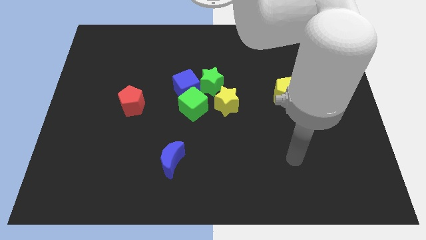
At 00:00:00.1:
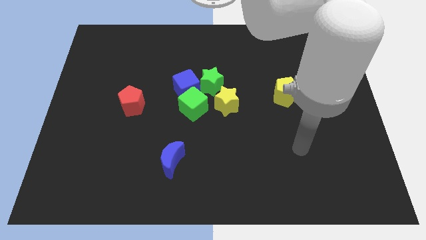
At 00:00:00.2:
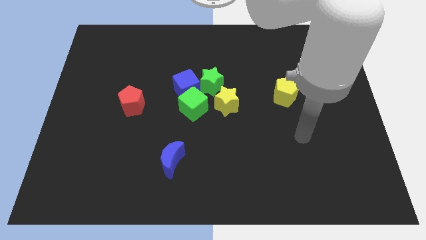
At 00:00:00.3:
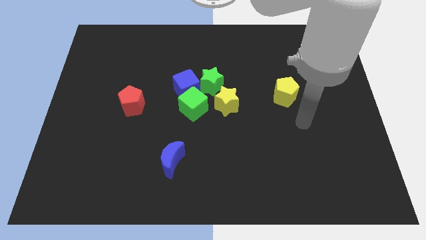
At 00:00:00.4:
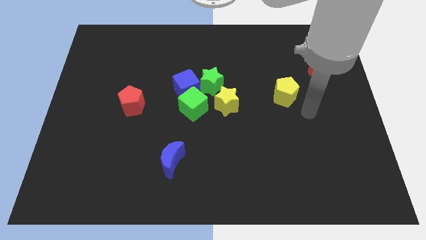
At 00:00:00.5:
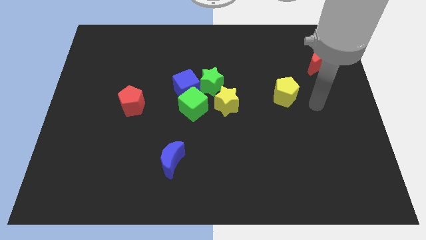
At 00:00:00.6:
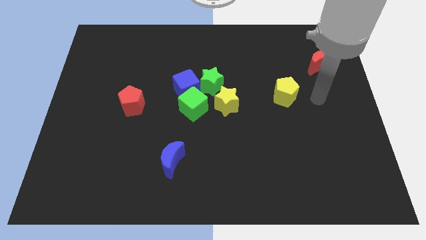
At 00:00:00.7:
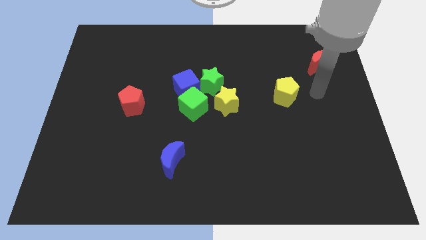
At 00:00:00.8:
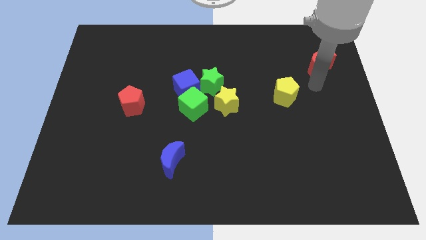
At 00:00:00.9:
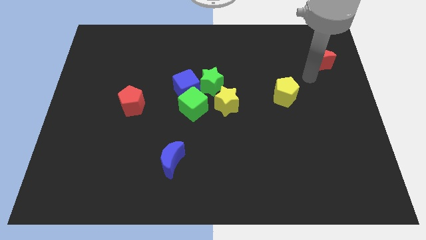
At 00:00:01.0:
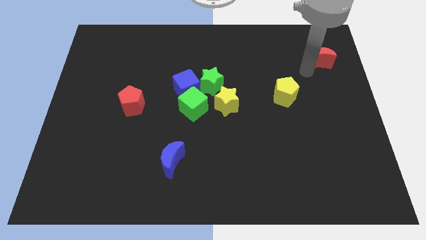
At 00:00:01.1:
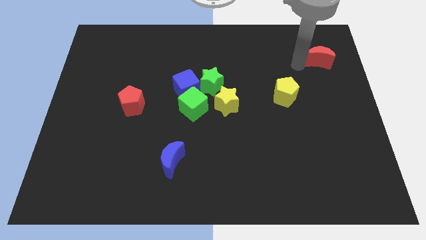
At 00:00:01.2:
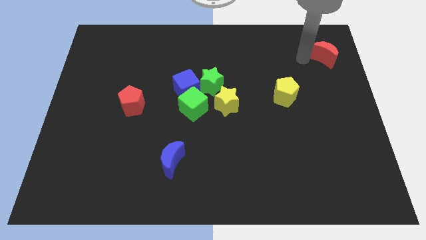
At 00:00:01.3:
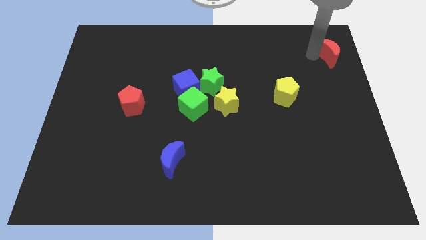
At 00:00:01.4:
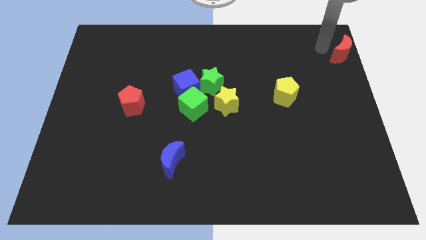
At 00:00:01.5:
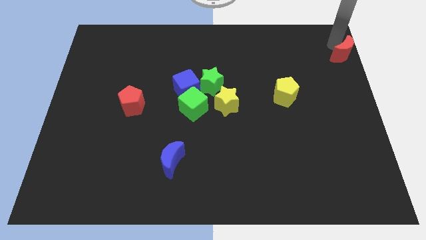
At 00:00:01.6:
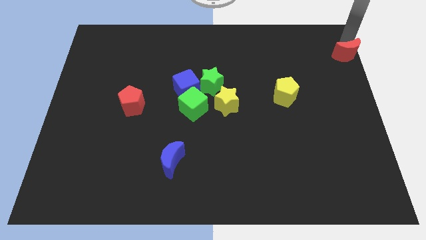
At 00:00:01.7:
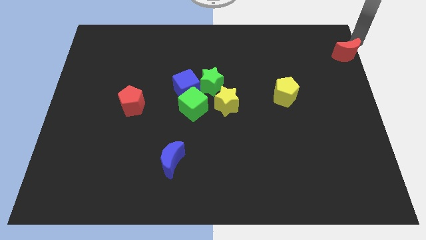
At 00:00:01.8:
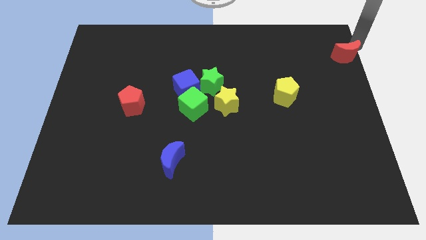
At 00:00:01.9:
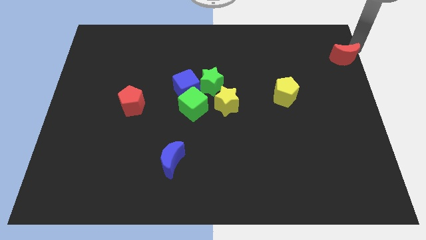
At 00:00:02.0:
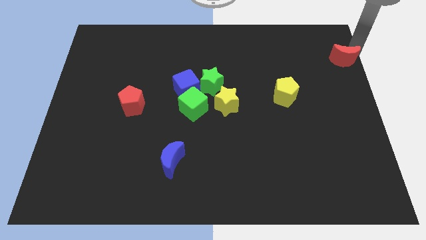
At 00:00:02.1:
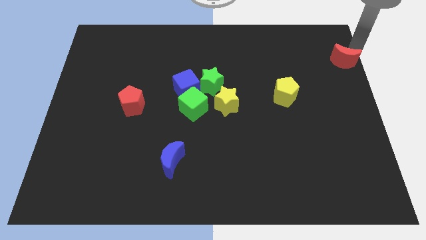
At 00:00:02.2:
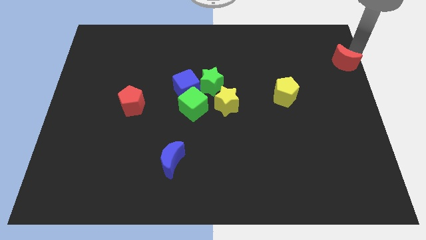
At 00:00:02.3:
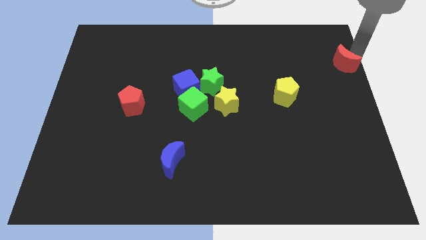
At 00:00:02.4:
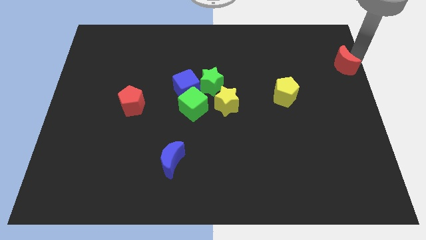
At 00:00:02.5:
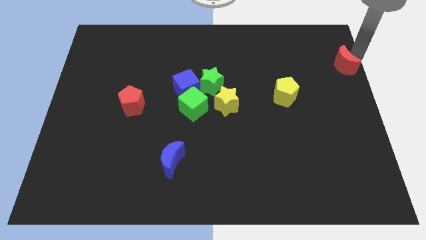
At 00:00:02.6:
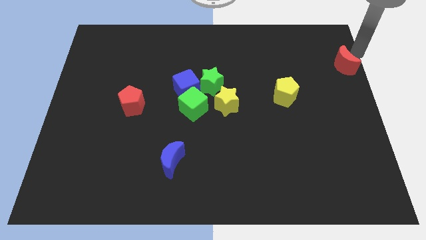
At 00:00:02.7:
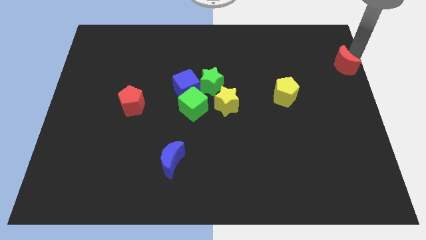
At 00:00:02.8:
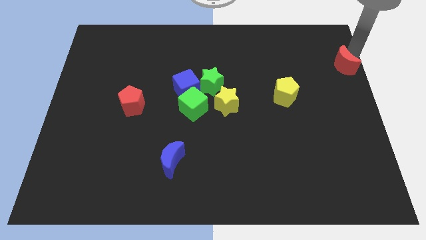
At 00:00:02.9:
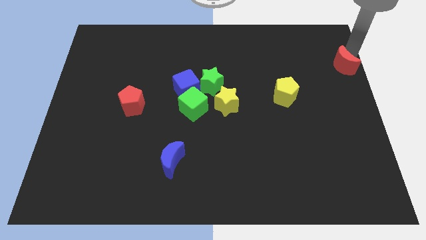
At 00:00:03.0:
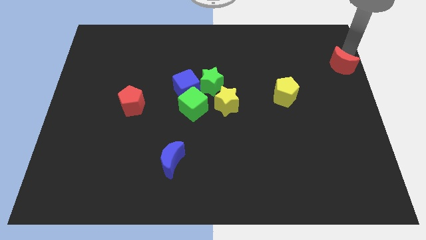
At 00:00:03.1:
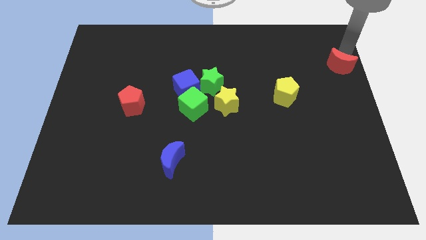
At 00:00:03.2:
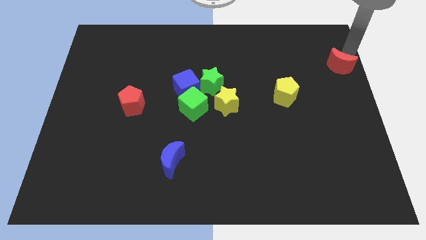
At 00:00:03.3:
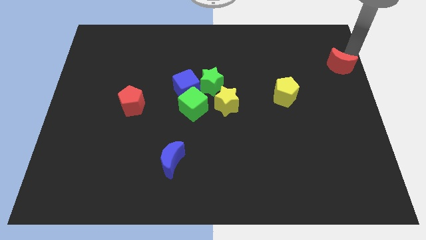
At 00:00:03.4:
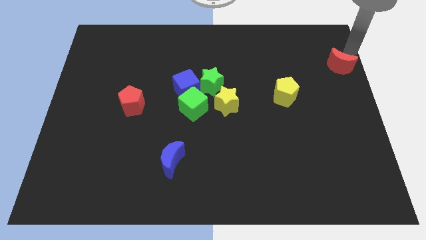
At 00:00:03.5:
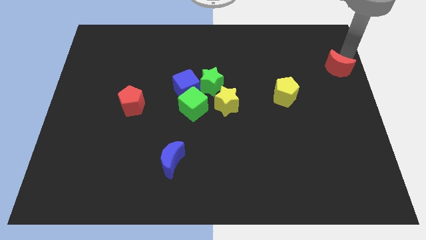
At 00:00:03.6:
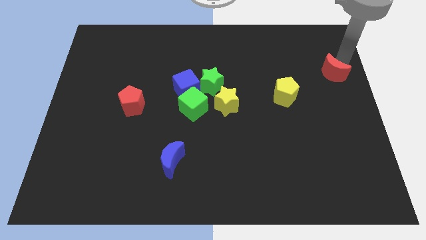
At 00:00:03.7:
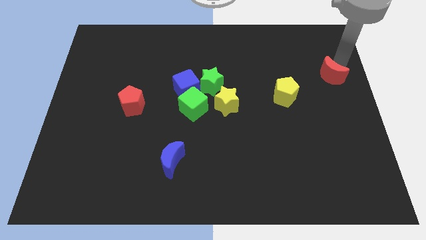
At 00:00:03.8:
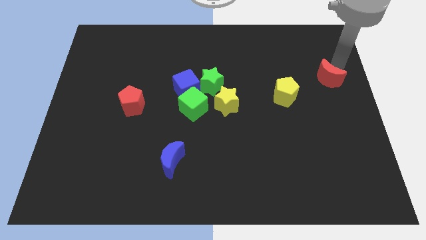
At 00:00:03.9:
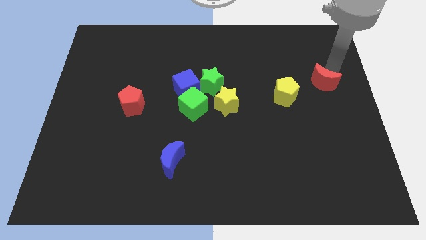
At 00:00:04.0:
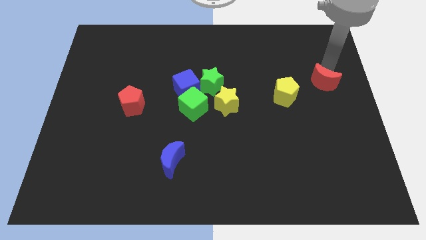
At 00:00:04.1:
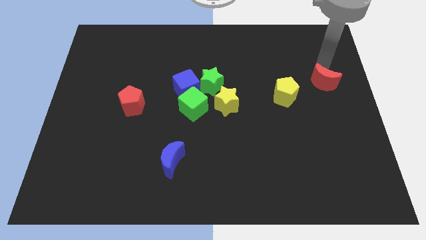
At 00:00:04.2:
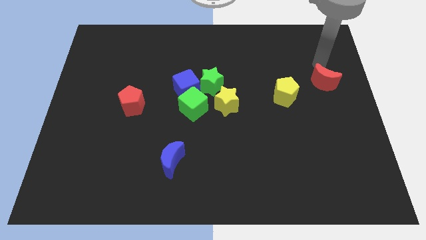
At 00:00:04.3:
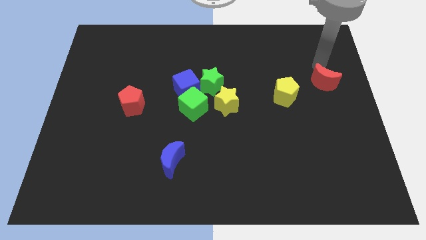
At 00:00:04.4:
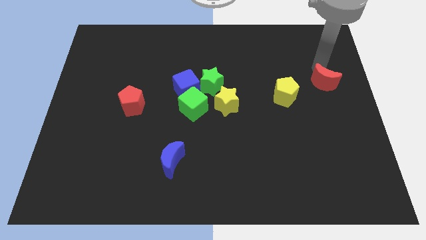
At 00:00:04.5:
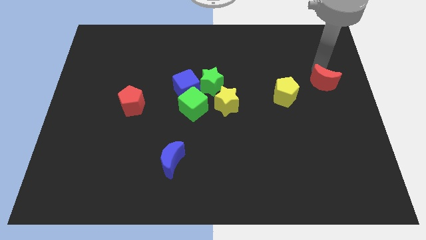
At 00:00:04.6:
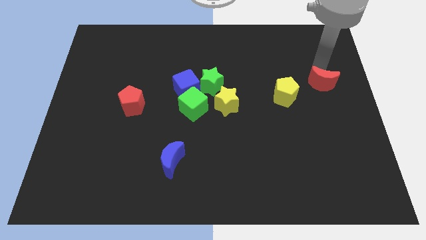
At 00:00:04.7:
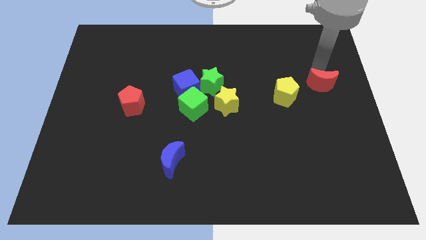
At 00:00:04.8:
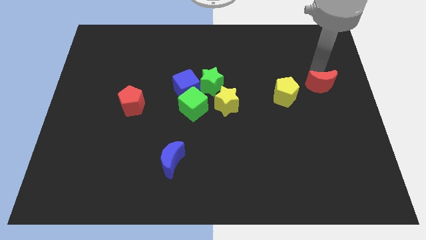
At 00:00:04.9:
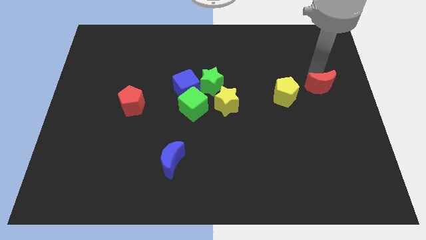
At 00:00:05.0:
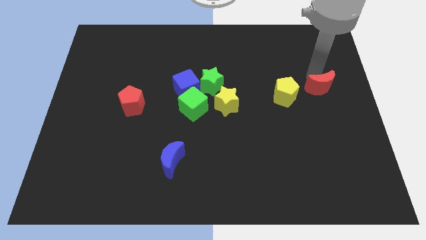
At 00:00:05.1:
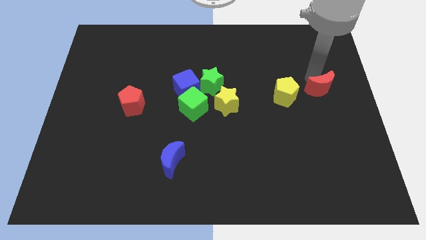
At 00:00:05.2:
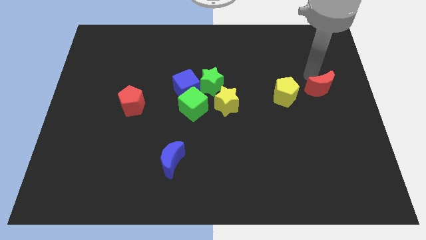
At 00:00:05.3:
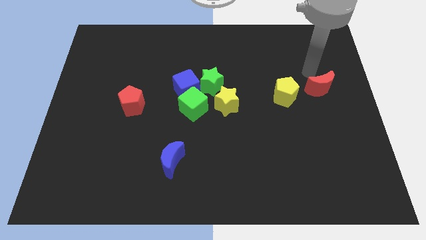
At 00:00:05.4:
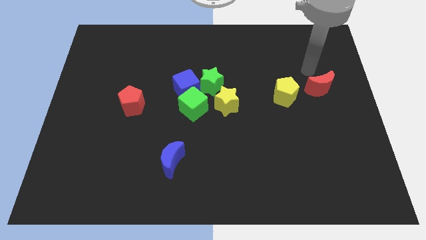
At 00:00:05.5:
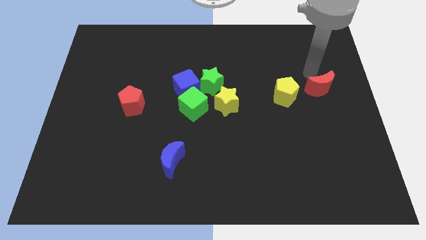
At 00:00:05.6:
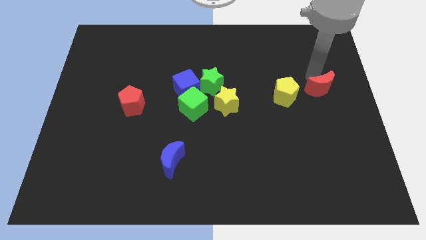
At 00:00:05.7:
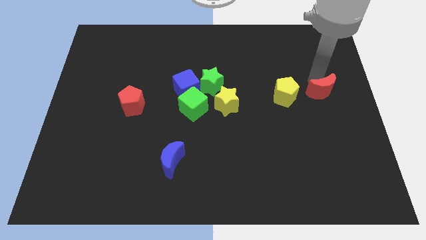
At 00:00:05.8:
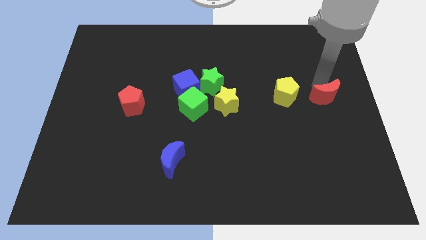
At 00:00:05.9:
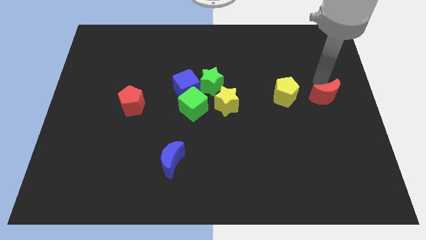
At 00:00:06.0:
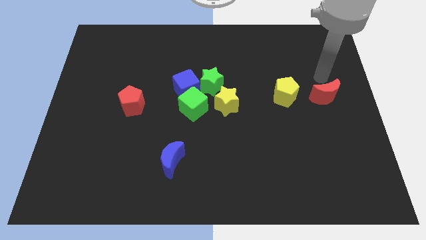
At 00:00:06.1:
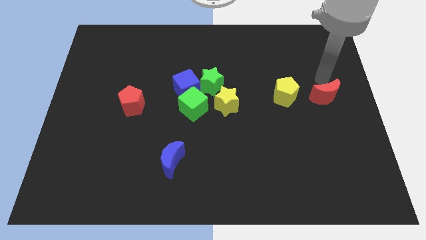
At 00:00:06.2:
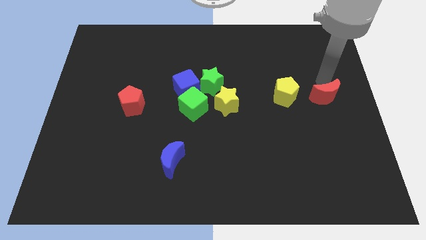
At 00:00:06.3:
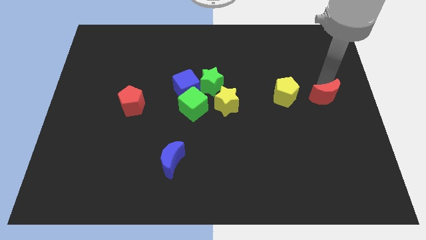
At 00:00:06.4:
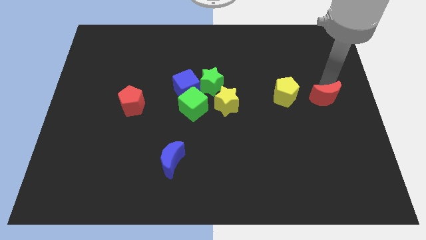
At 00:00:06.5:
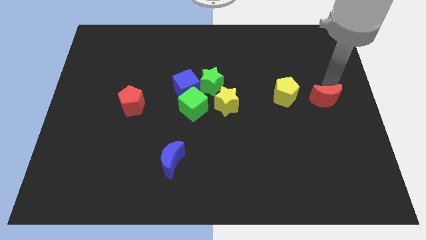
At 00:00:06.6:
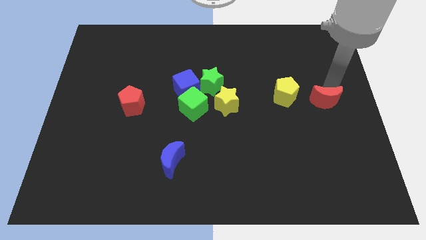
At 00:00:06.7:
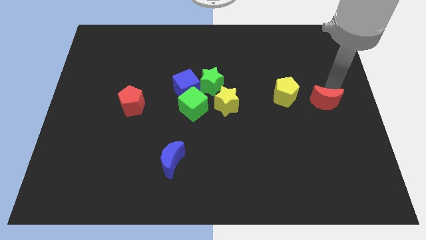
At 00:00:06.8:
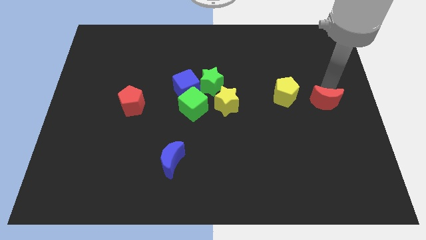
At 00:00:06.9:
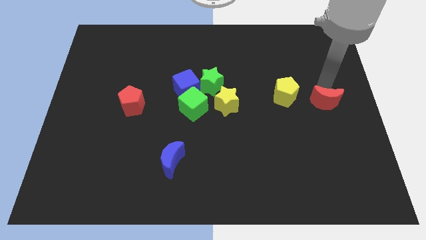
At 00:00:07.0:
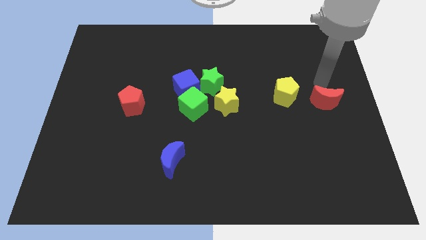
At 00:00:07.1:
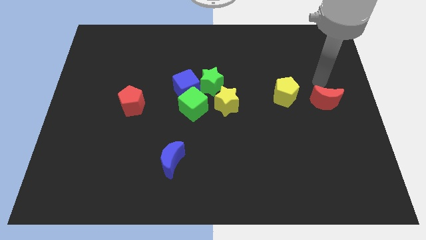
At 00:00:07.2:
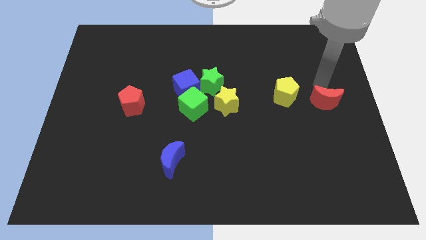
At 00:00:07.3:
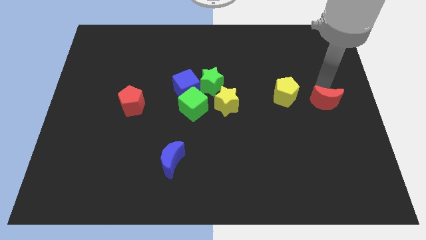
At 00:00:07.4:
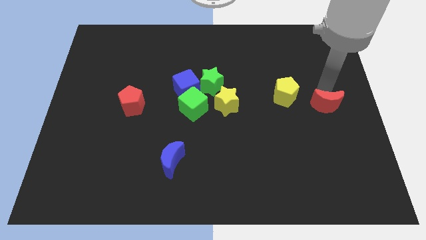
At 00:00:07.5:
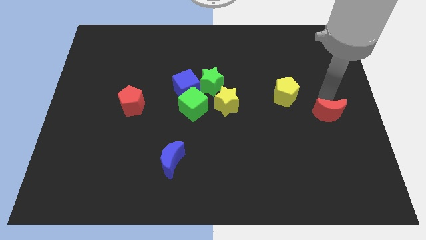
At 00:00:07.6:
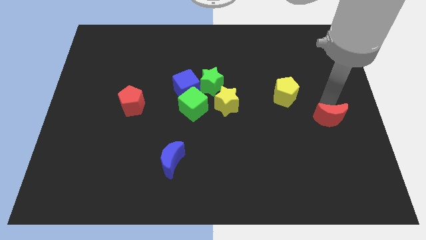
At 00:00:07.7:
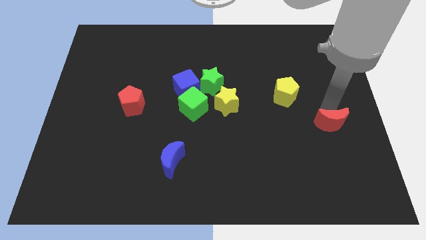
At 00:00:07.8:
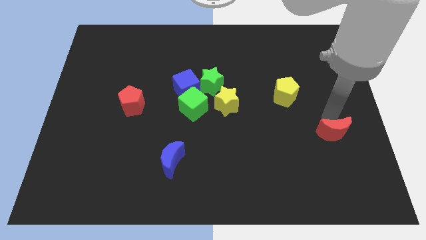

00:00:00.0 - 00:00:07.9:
push the red moon down
